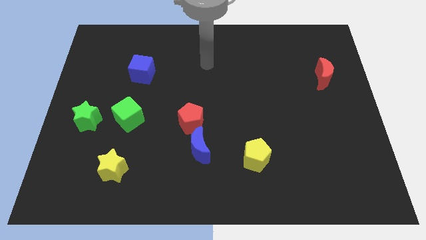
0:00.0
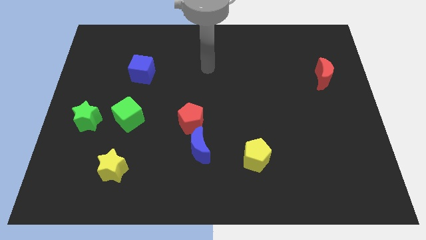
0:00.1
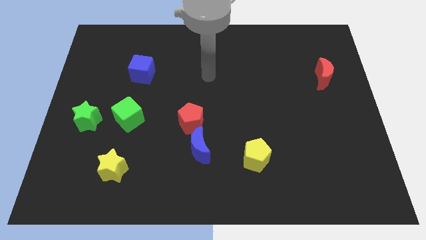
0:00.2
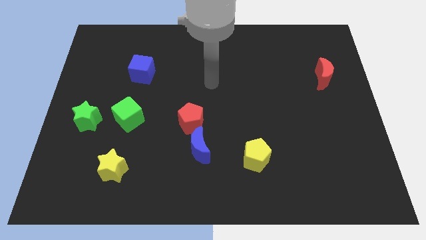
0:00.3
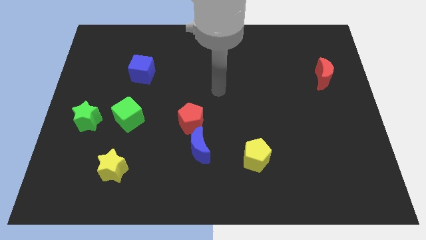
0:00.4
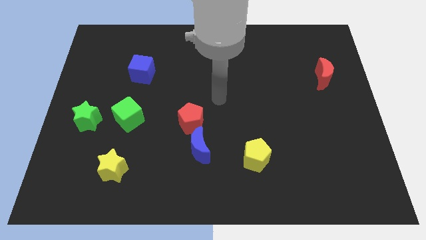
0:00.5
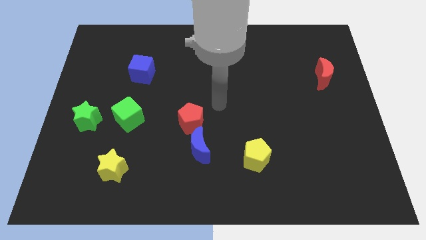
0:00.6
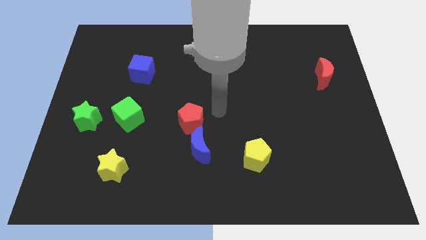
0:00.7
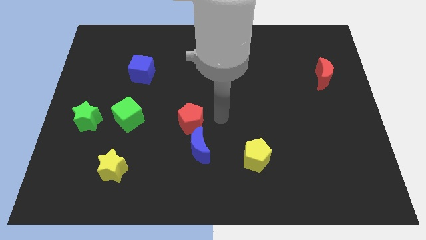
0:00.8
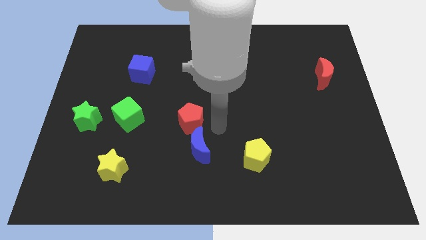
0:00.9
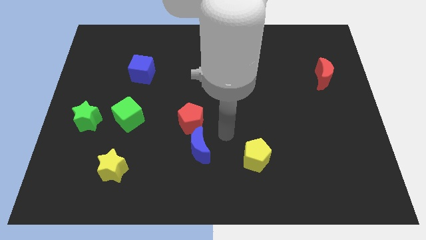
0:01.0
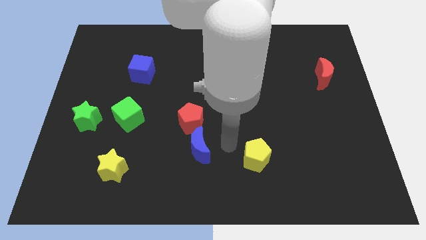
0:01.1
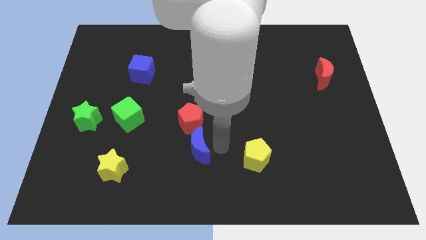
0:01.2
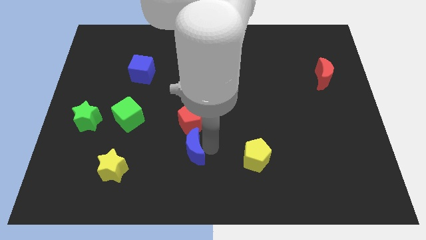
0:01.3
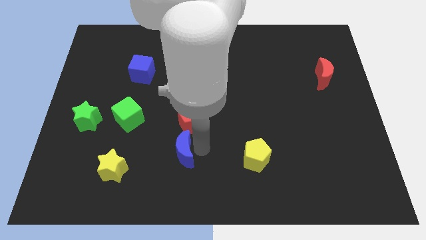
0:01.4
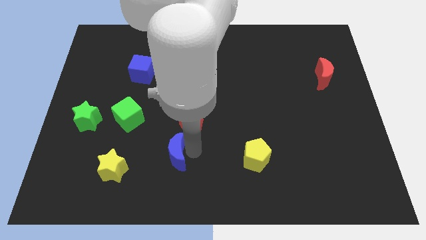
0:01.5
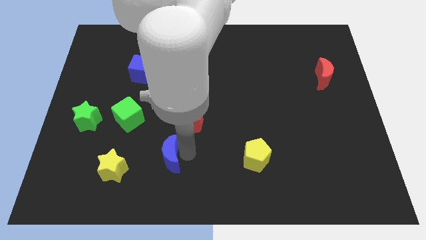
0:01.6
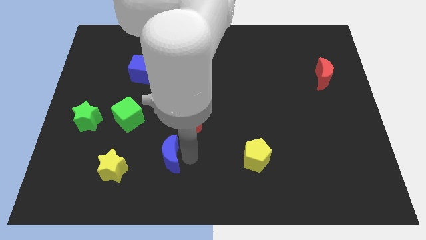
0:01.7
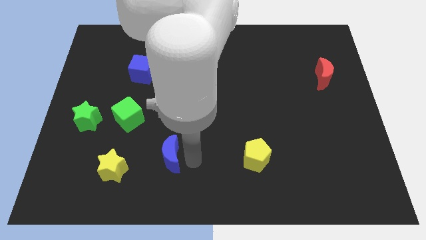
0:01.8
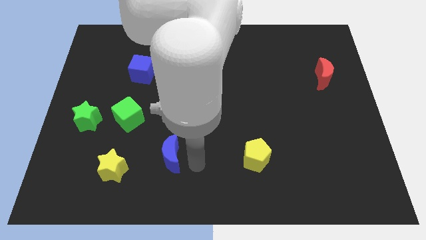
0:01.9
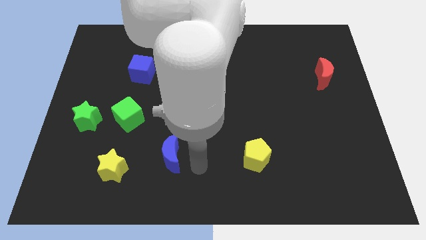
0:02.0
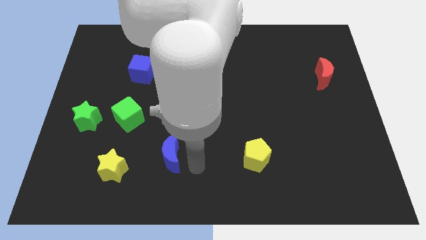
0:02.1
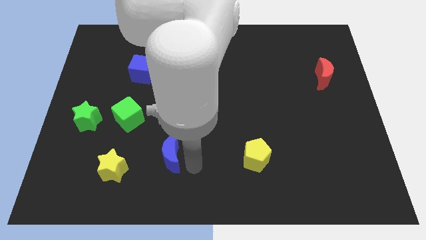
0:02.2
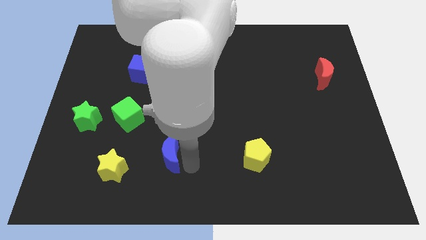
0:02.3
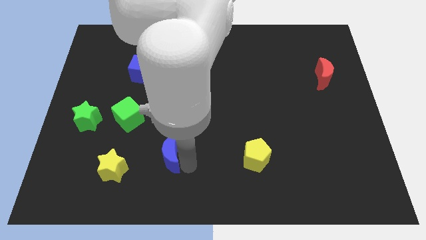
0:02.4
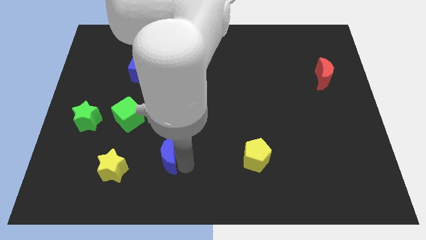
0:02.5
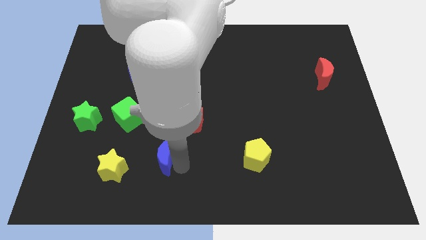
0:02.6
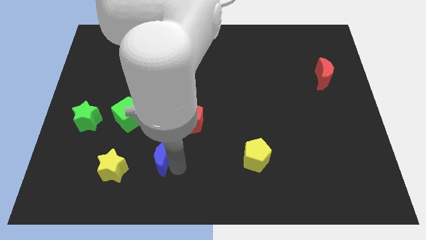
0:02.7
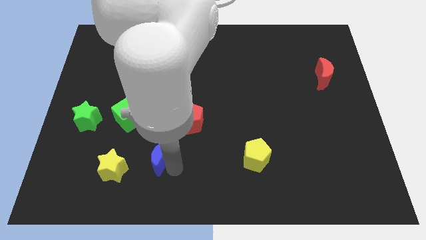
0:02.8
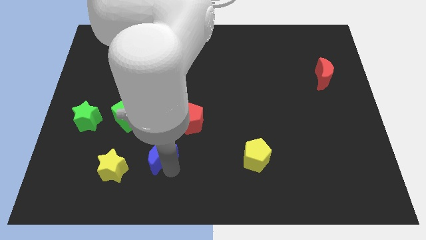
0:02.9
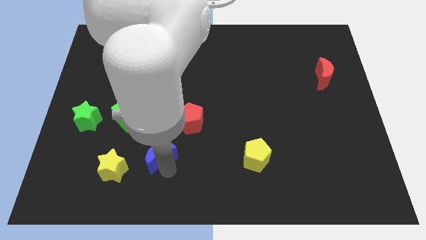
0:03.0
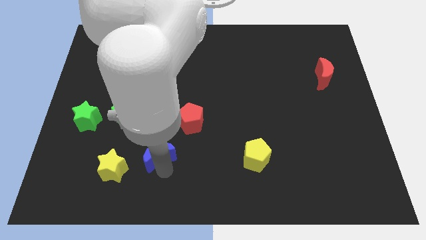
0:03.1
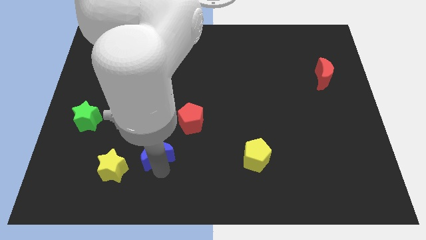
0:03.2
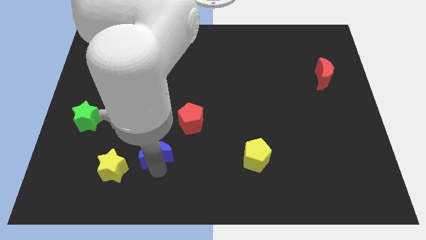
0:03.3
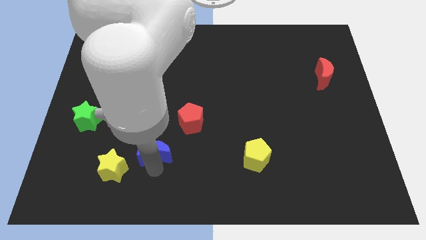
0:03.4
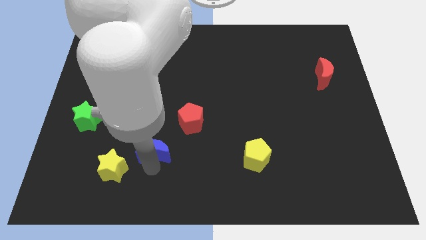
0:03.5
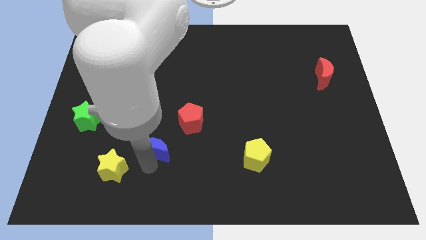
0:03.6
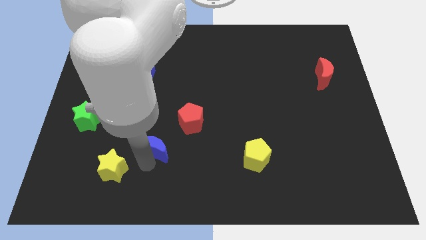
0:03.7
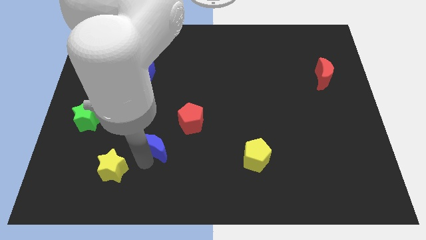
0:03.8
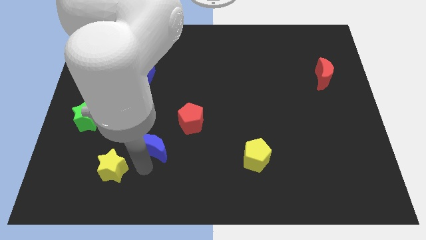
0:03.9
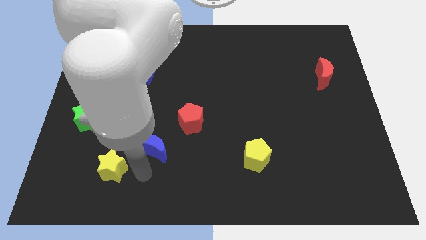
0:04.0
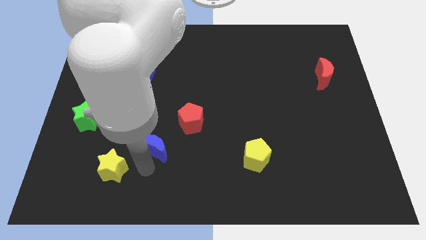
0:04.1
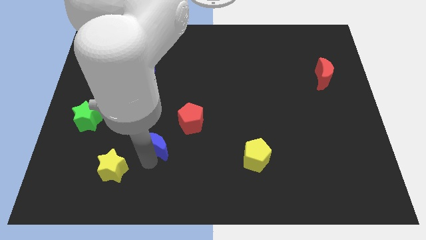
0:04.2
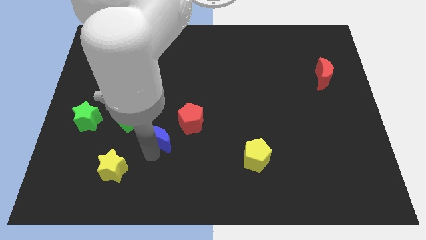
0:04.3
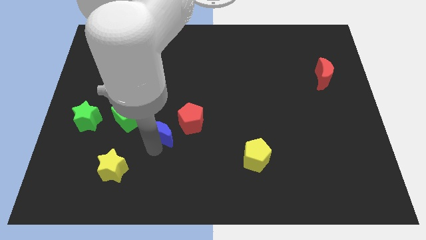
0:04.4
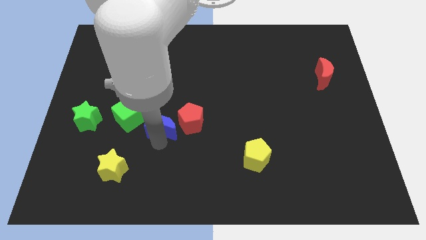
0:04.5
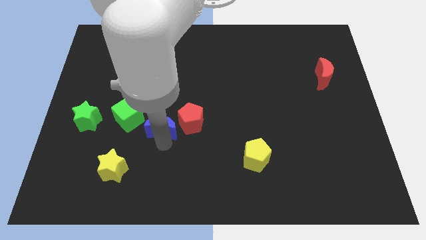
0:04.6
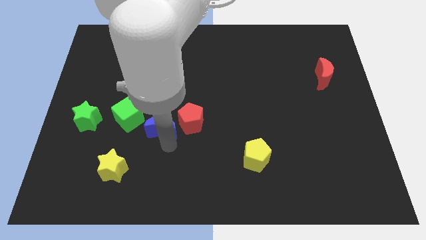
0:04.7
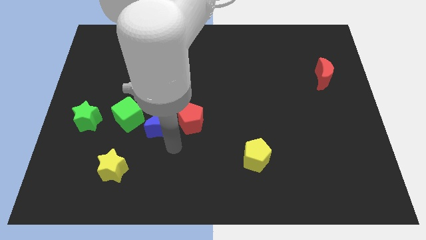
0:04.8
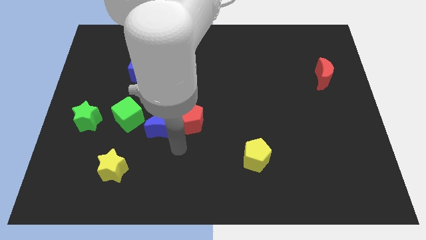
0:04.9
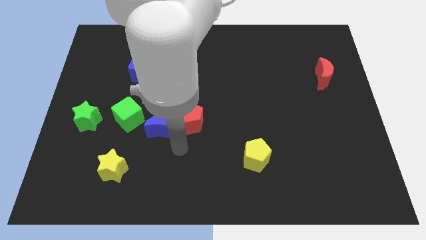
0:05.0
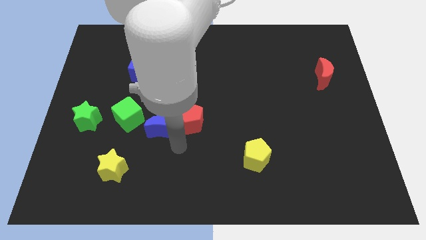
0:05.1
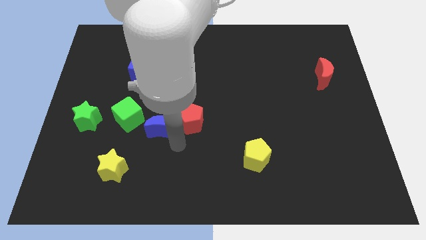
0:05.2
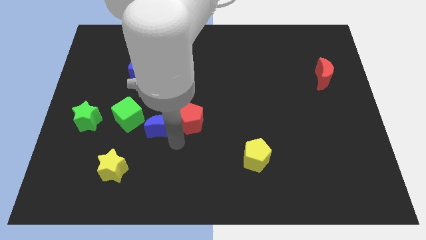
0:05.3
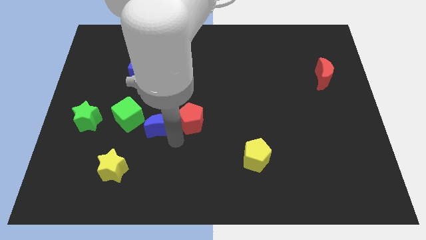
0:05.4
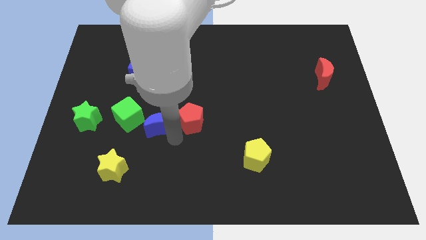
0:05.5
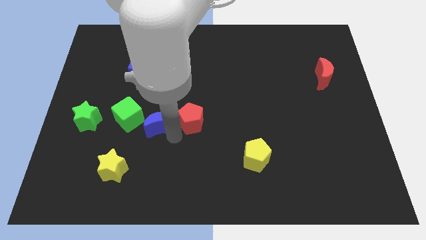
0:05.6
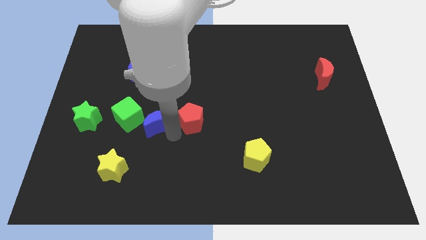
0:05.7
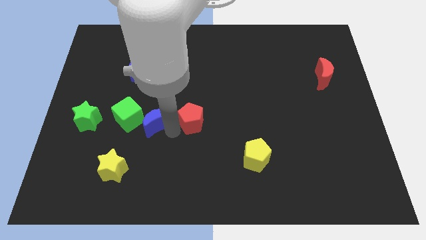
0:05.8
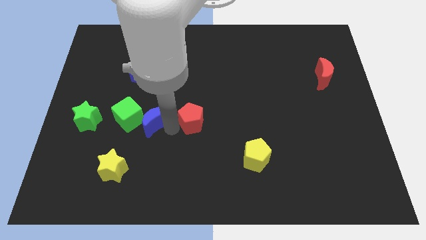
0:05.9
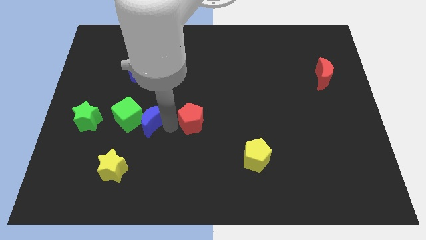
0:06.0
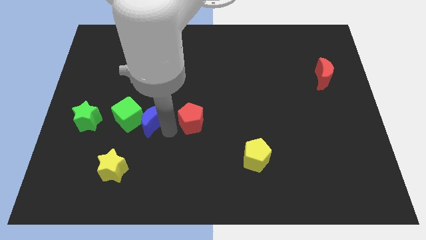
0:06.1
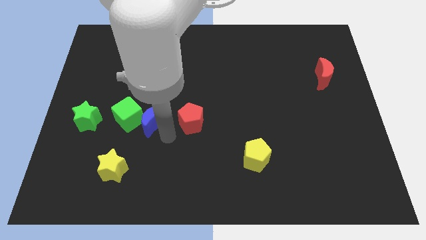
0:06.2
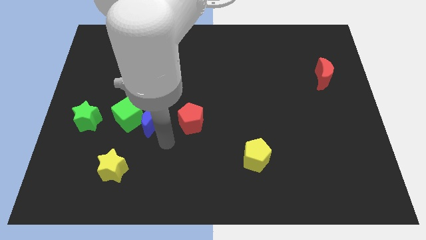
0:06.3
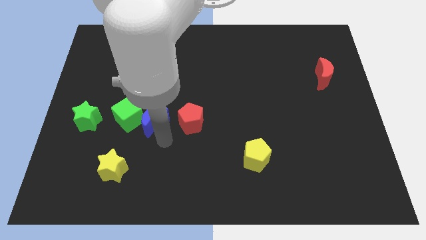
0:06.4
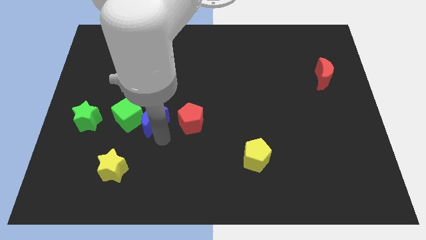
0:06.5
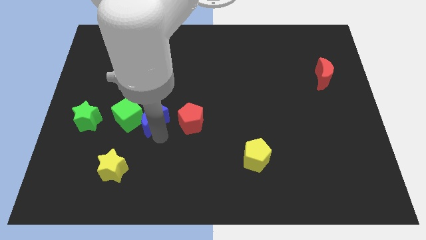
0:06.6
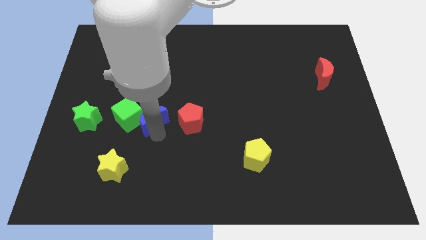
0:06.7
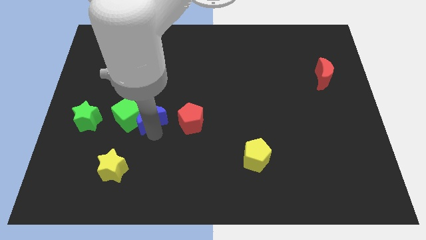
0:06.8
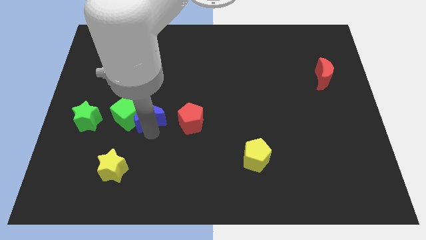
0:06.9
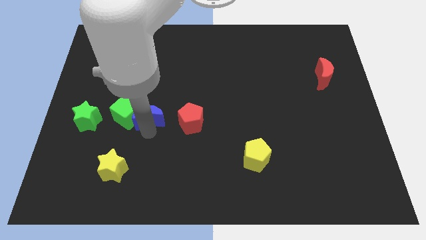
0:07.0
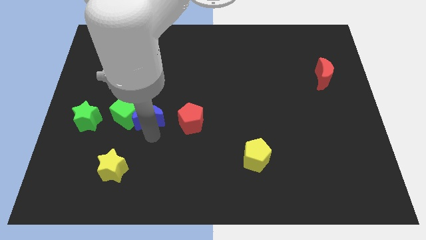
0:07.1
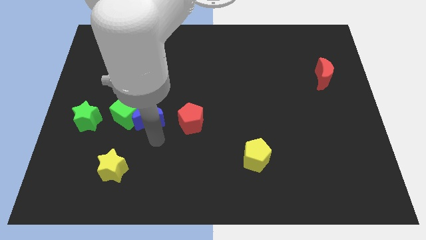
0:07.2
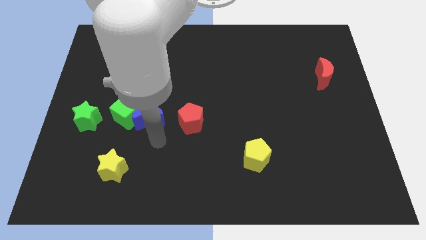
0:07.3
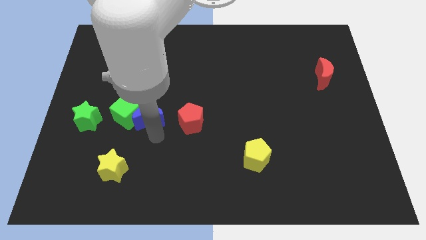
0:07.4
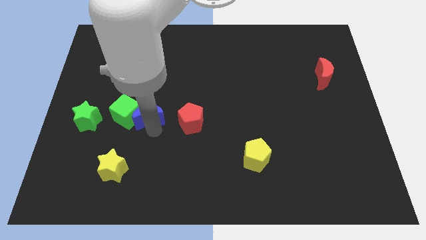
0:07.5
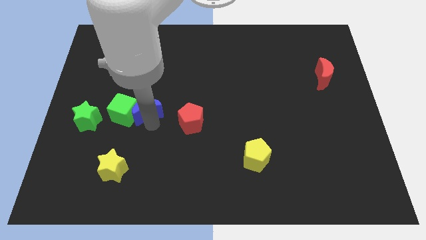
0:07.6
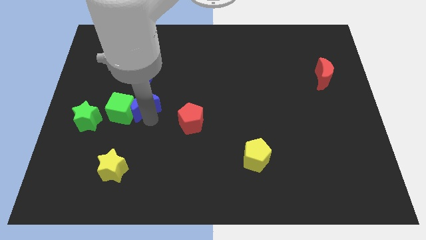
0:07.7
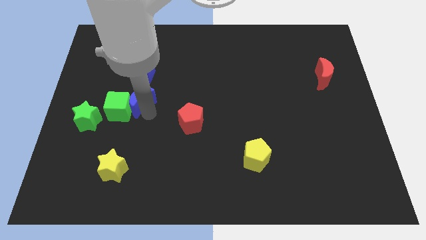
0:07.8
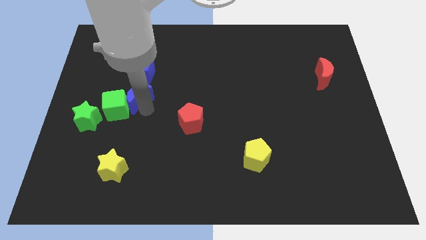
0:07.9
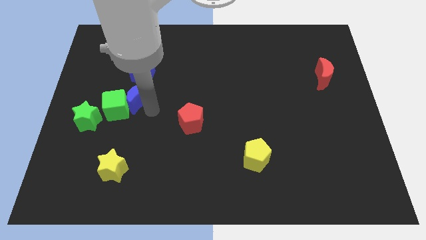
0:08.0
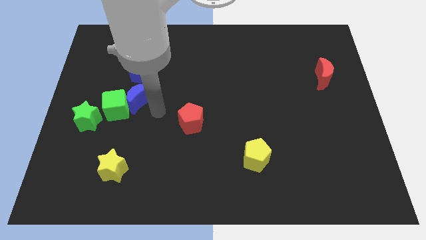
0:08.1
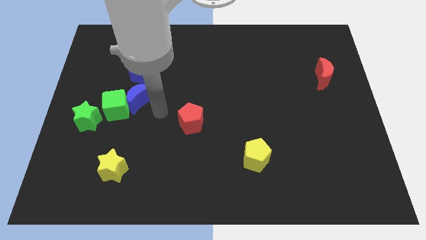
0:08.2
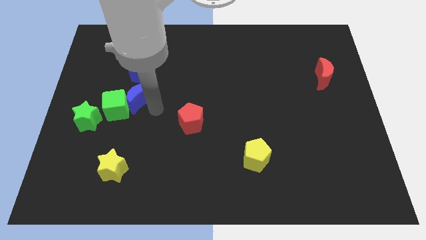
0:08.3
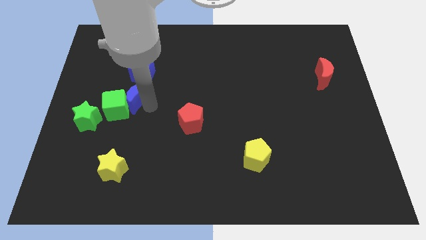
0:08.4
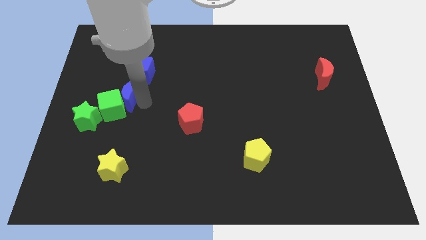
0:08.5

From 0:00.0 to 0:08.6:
put the blue moon diagonally down and to the left of the blue cube
